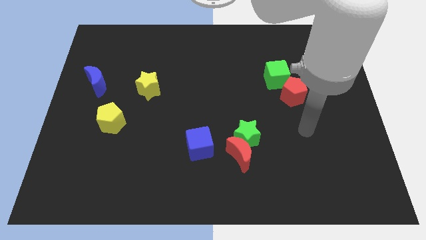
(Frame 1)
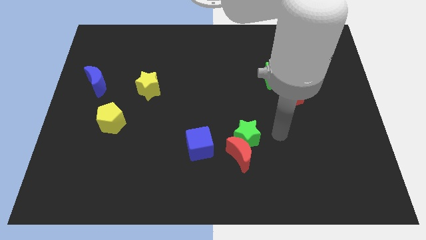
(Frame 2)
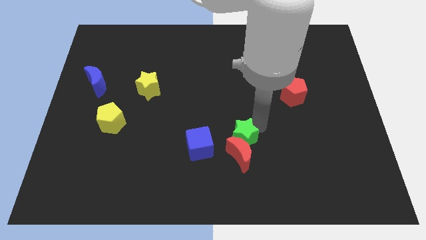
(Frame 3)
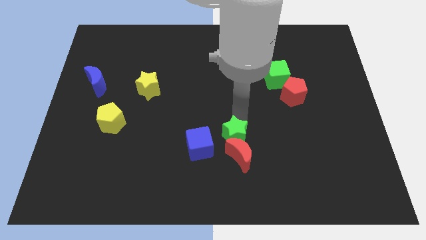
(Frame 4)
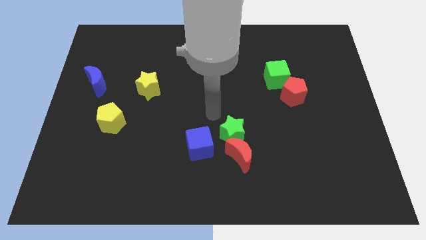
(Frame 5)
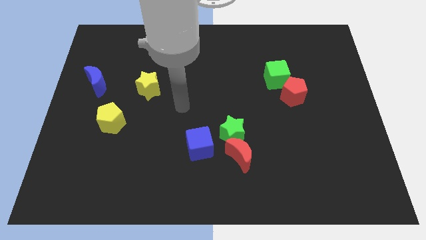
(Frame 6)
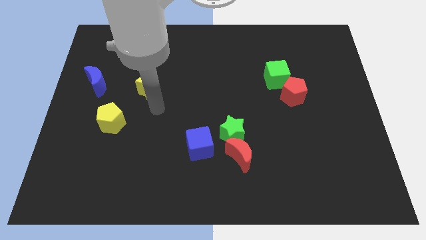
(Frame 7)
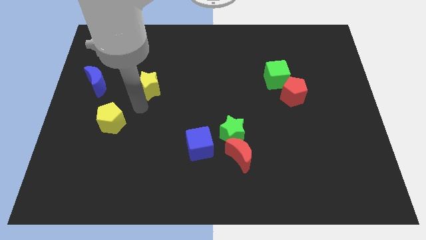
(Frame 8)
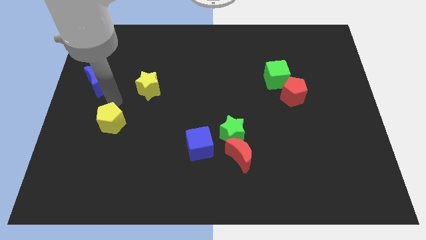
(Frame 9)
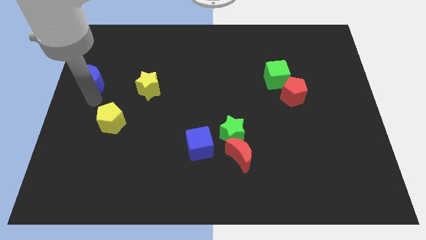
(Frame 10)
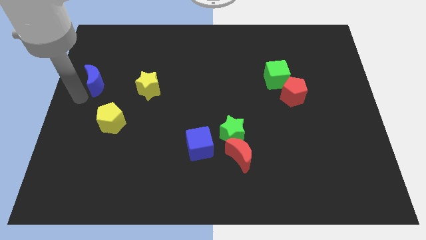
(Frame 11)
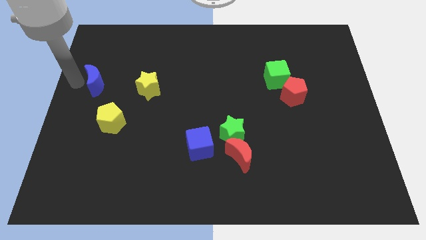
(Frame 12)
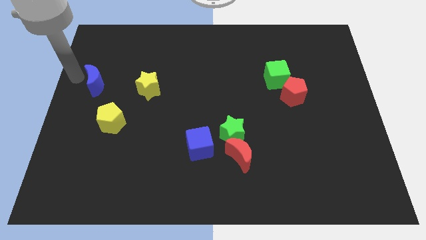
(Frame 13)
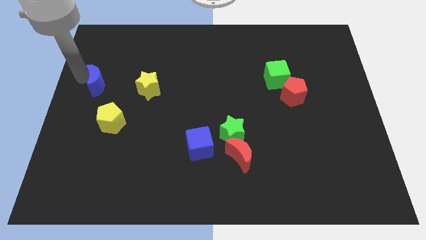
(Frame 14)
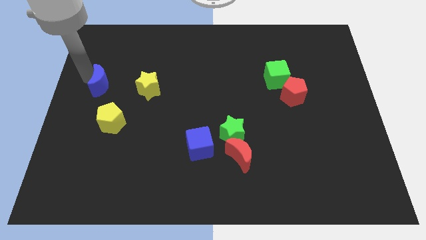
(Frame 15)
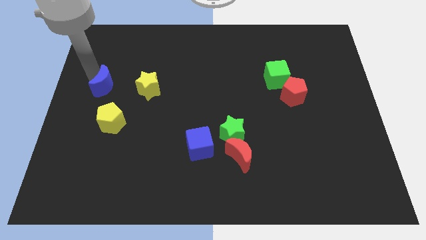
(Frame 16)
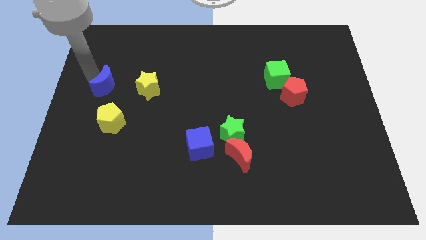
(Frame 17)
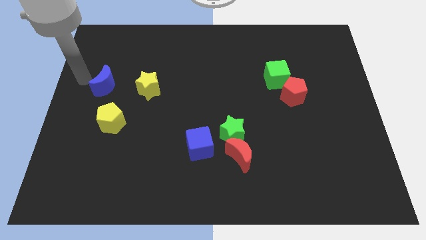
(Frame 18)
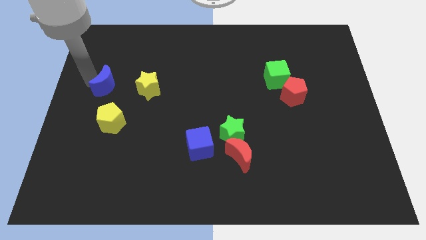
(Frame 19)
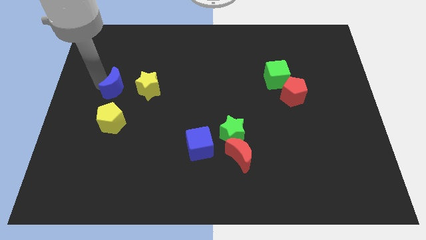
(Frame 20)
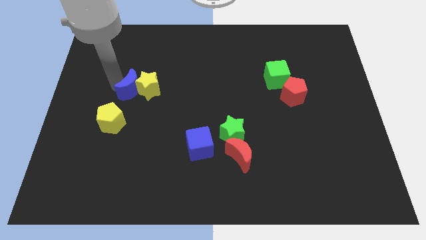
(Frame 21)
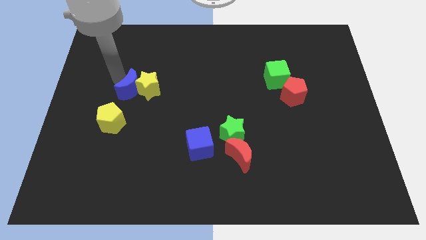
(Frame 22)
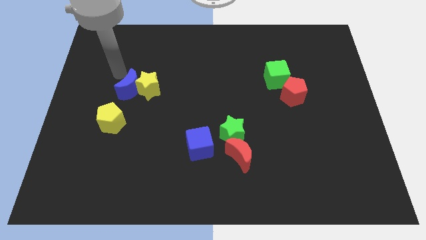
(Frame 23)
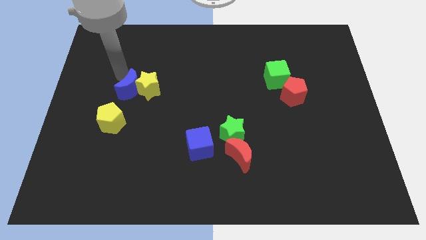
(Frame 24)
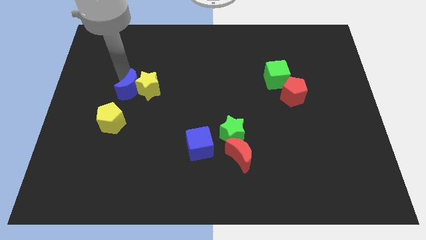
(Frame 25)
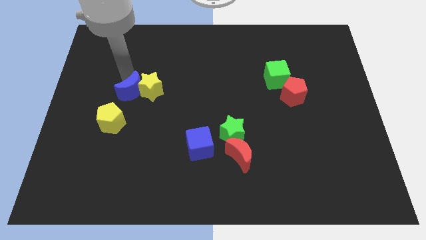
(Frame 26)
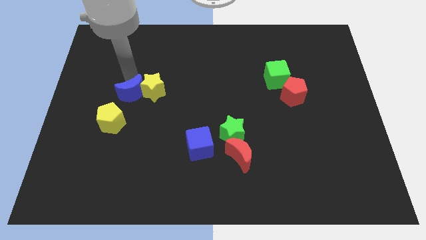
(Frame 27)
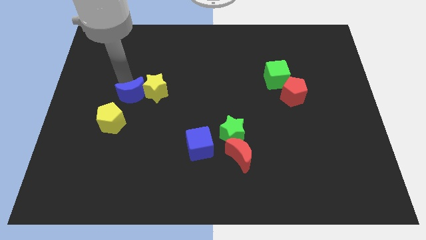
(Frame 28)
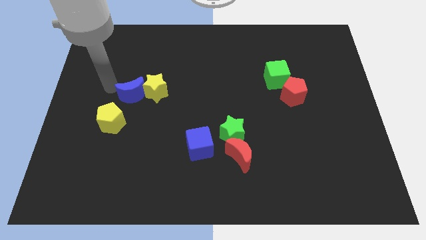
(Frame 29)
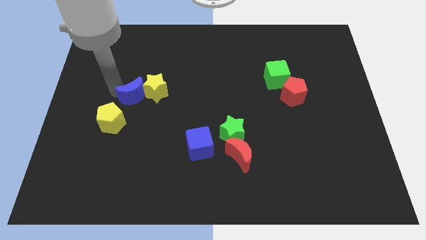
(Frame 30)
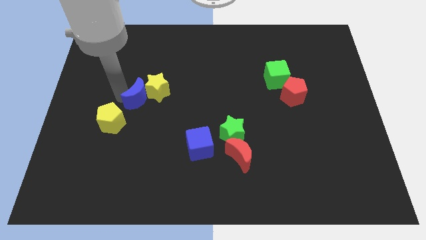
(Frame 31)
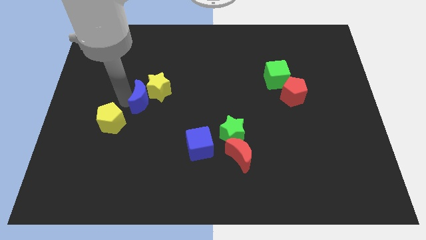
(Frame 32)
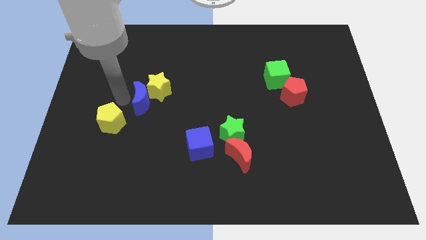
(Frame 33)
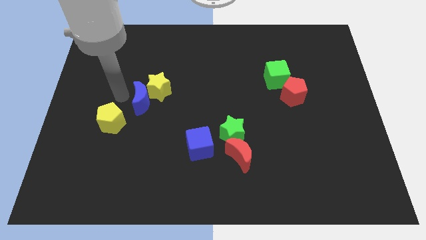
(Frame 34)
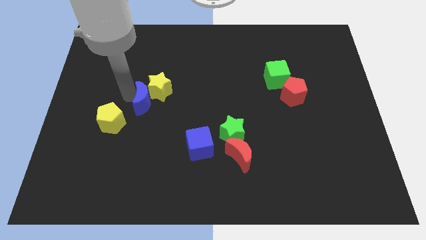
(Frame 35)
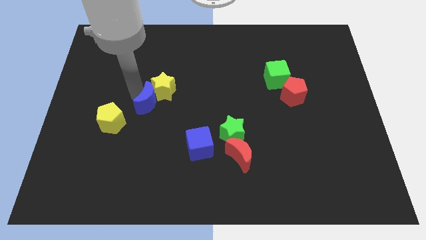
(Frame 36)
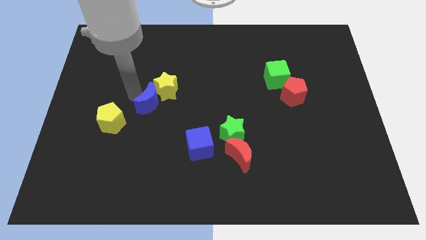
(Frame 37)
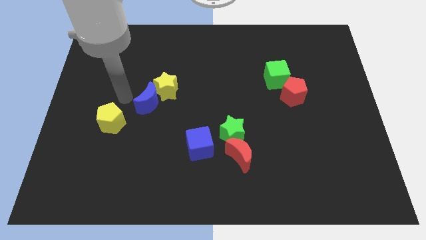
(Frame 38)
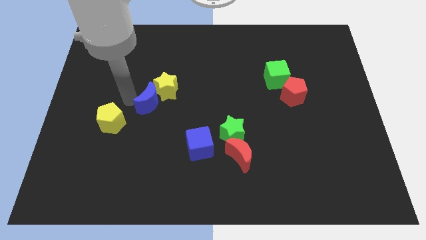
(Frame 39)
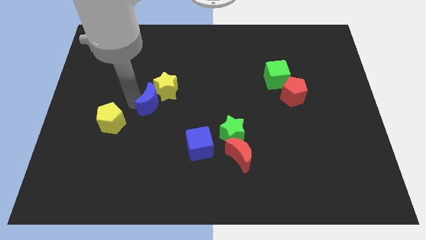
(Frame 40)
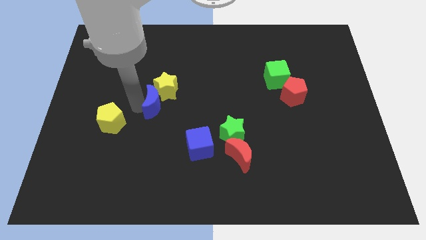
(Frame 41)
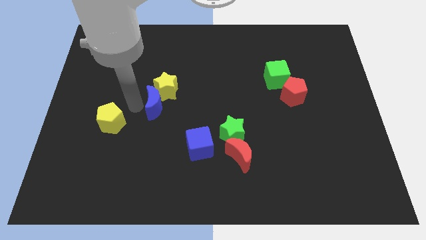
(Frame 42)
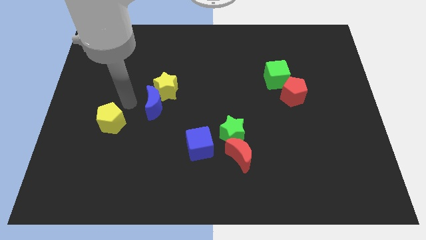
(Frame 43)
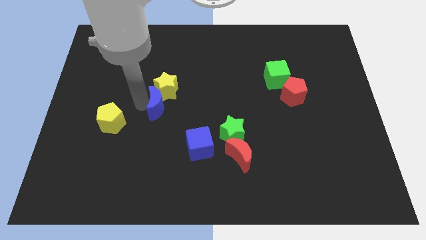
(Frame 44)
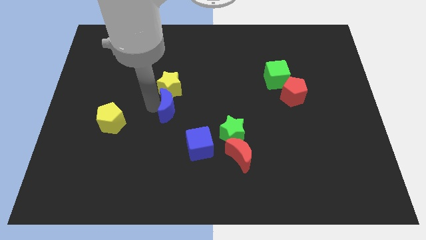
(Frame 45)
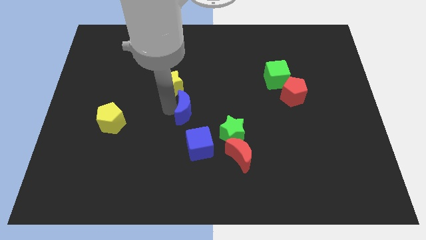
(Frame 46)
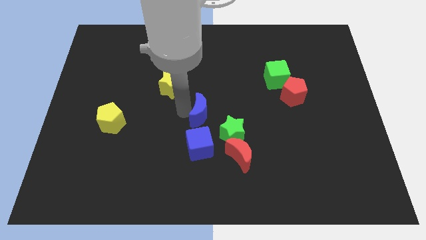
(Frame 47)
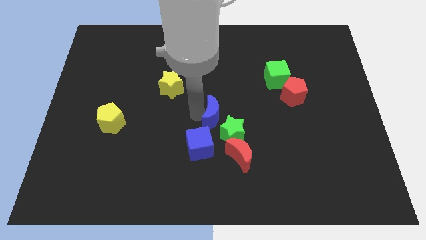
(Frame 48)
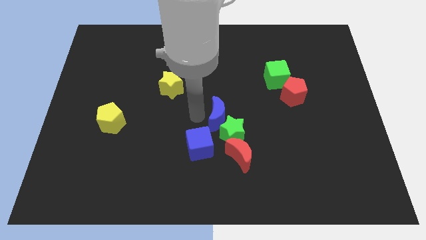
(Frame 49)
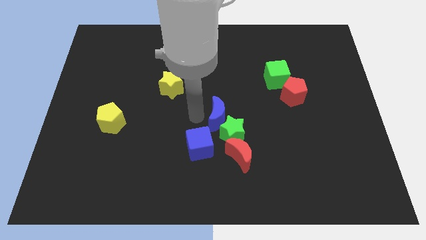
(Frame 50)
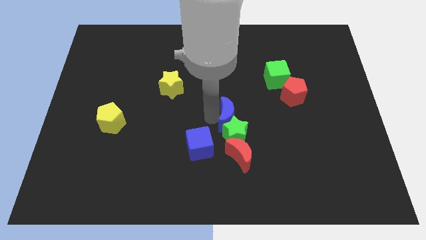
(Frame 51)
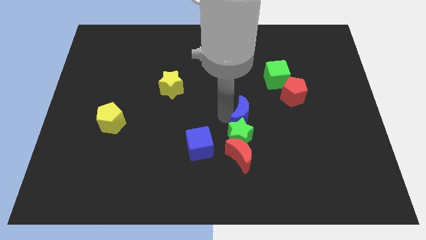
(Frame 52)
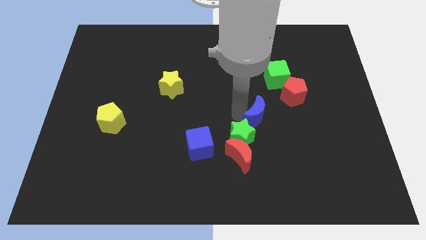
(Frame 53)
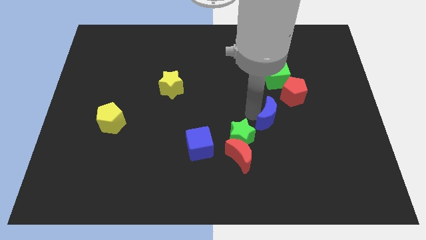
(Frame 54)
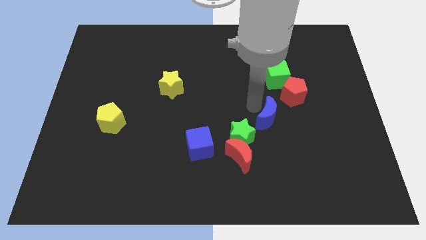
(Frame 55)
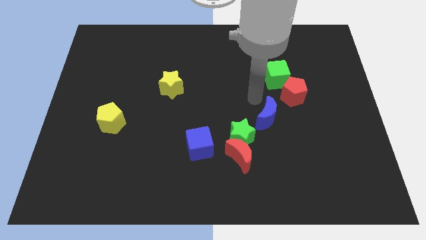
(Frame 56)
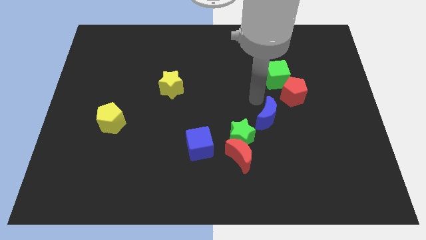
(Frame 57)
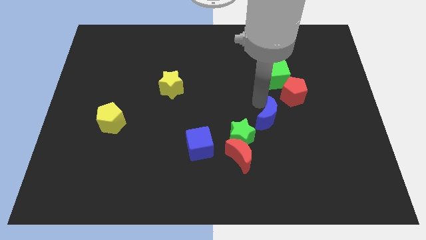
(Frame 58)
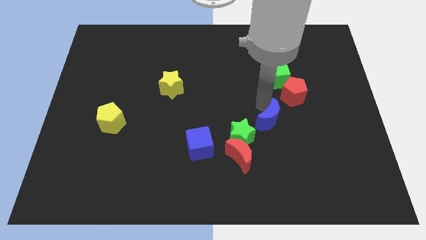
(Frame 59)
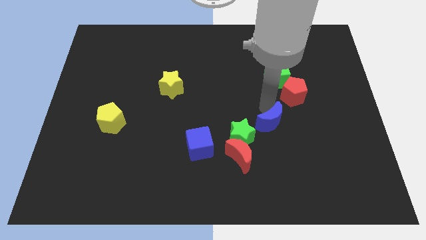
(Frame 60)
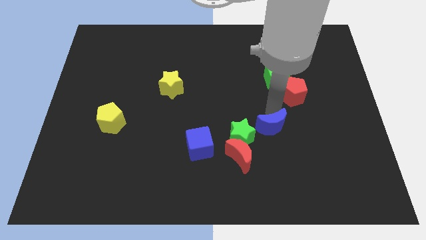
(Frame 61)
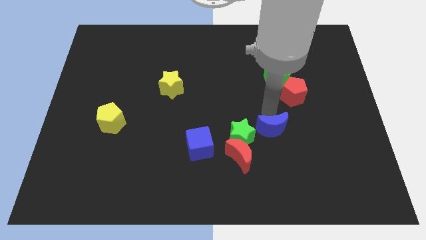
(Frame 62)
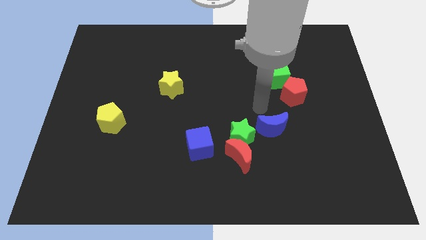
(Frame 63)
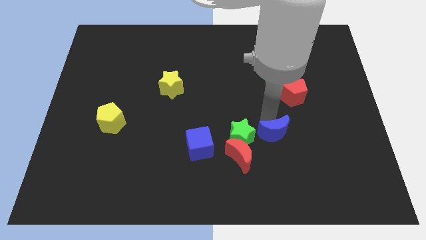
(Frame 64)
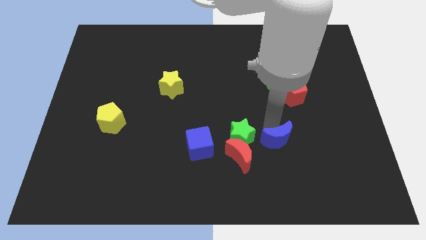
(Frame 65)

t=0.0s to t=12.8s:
put the blue moon to the right of the red moon
